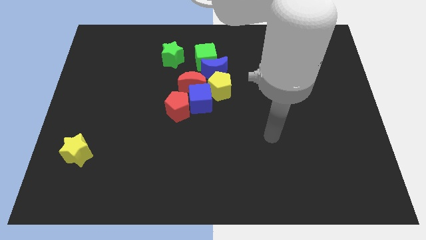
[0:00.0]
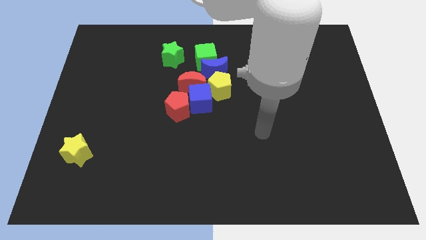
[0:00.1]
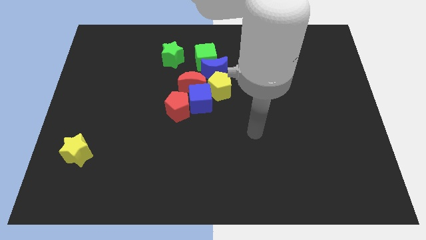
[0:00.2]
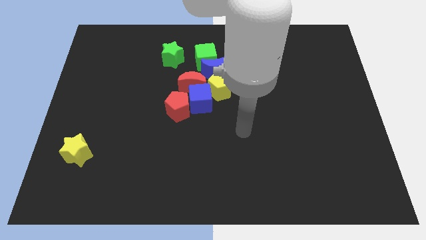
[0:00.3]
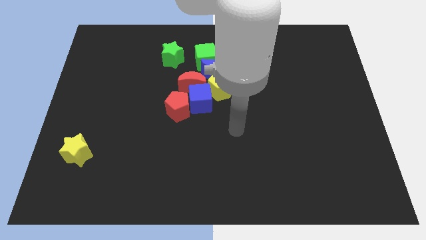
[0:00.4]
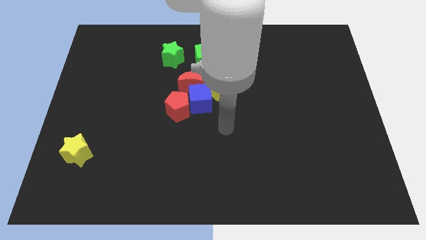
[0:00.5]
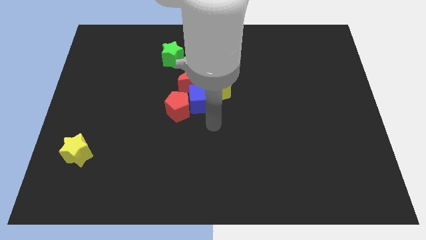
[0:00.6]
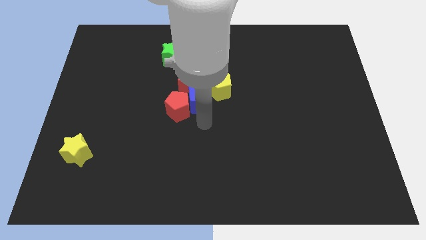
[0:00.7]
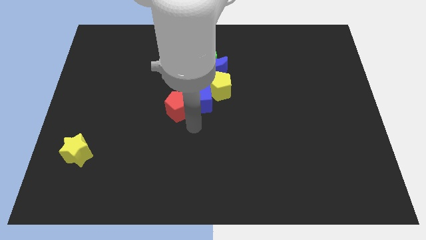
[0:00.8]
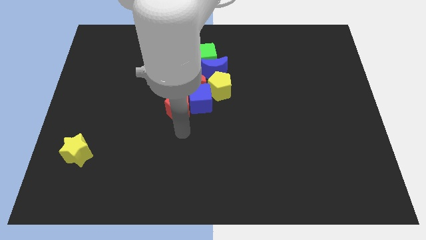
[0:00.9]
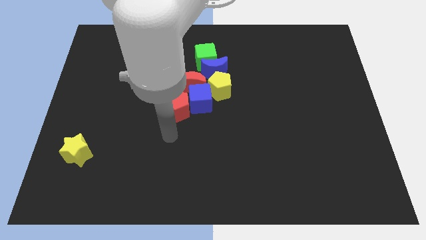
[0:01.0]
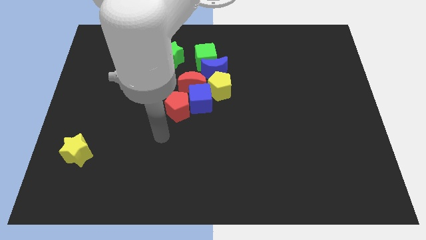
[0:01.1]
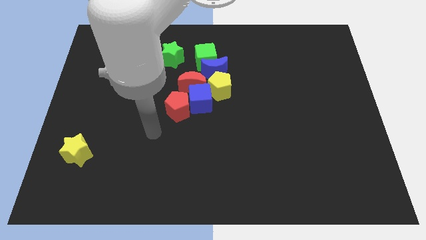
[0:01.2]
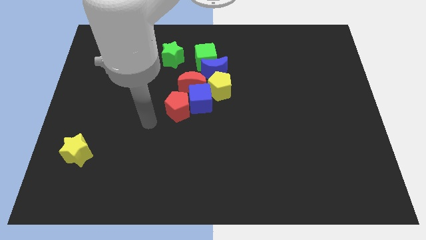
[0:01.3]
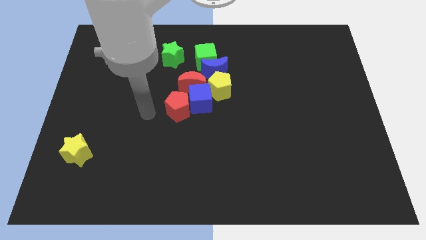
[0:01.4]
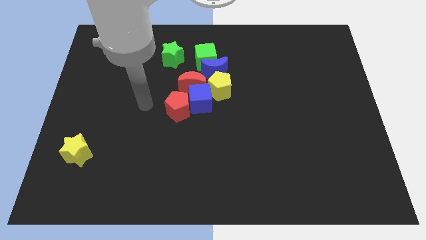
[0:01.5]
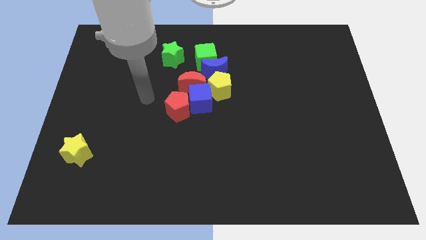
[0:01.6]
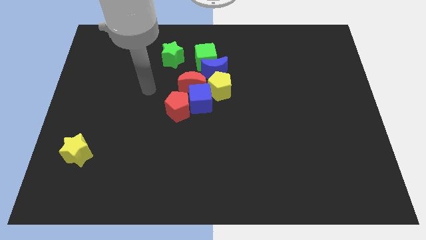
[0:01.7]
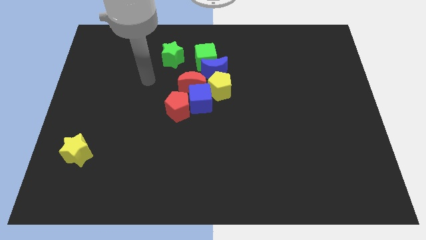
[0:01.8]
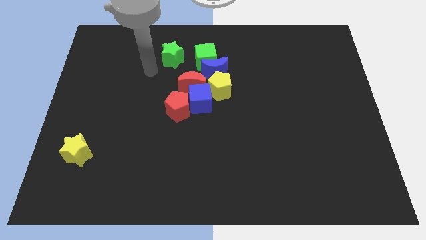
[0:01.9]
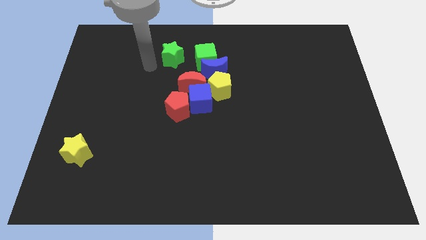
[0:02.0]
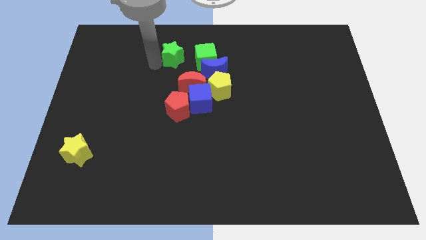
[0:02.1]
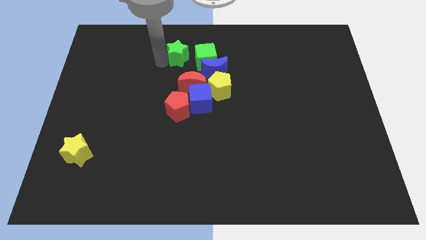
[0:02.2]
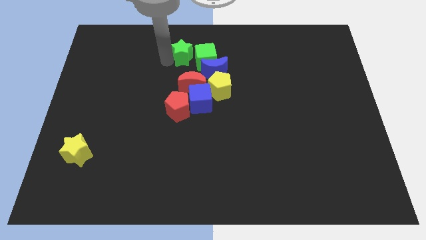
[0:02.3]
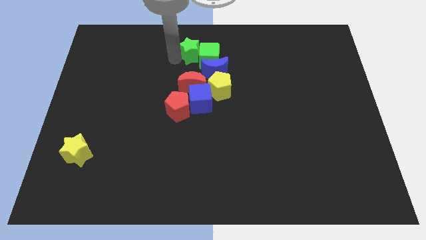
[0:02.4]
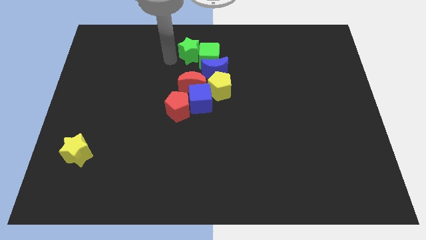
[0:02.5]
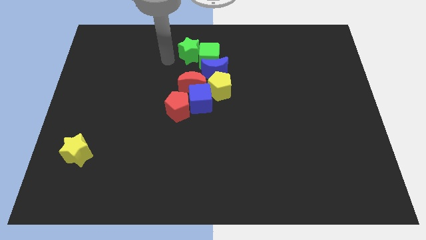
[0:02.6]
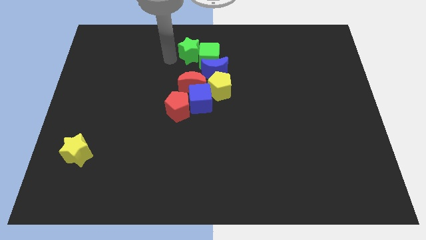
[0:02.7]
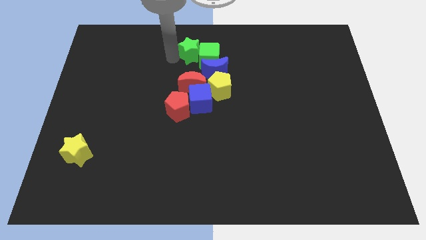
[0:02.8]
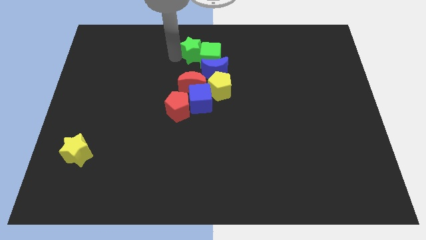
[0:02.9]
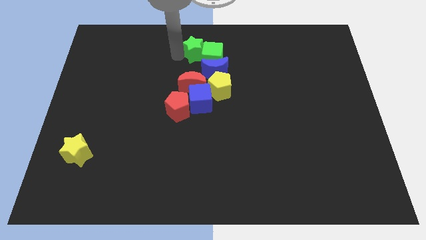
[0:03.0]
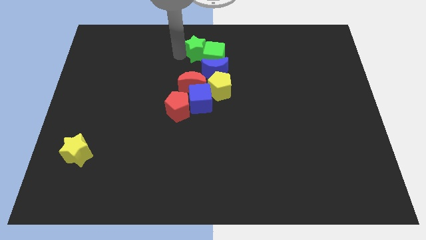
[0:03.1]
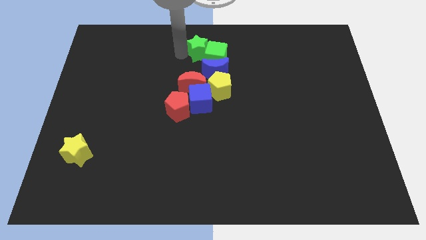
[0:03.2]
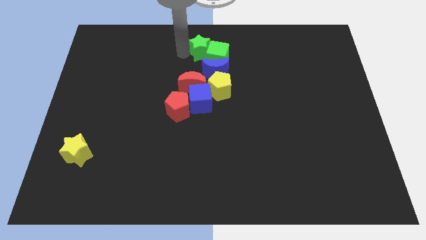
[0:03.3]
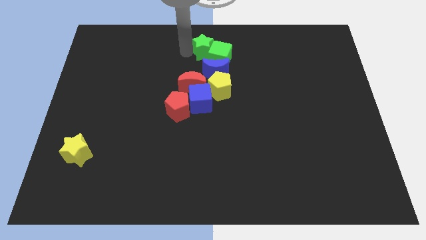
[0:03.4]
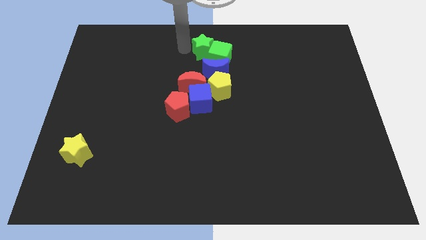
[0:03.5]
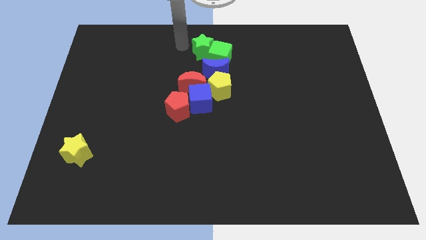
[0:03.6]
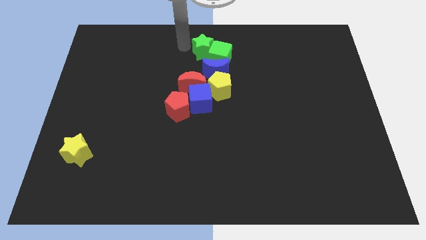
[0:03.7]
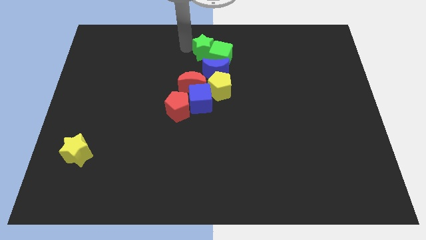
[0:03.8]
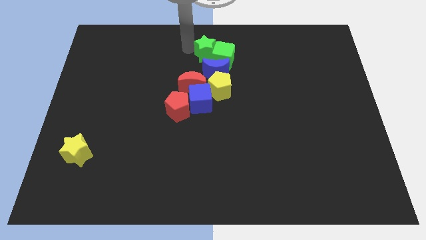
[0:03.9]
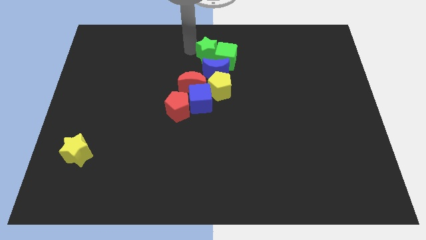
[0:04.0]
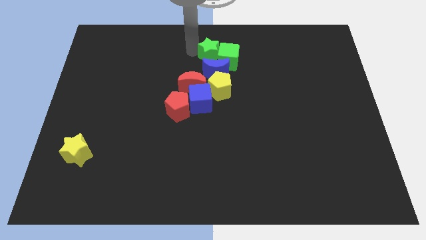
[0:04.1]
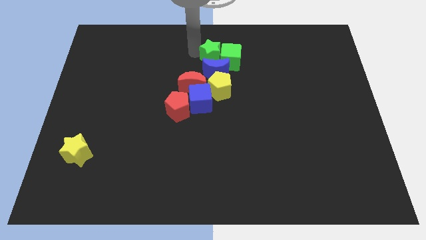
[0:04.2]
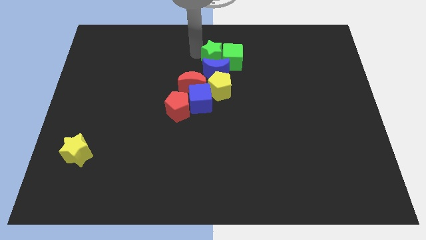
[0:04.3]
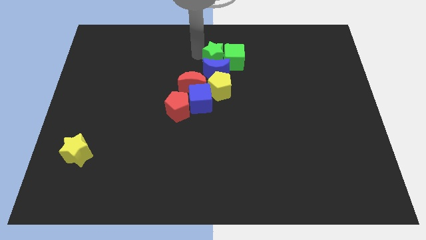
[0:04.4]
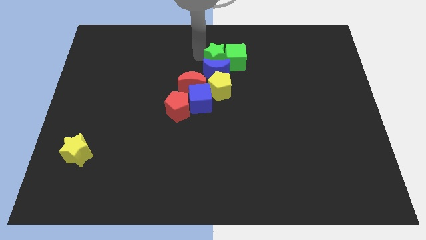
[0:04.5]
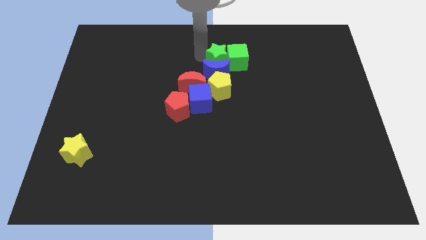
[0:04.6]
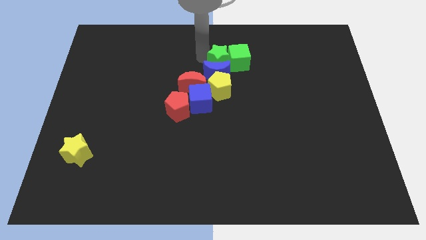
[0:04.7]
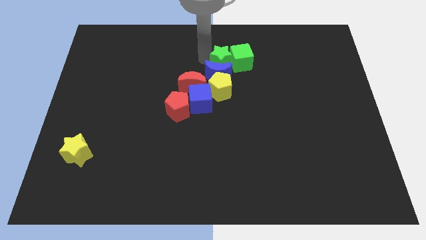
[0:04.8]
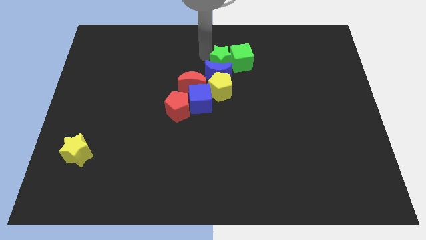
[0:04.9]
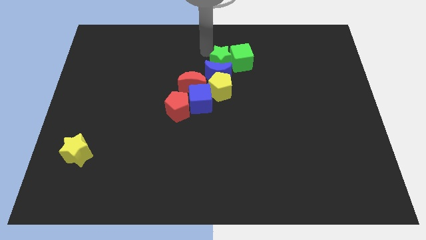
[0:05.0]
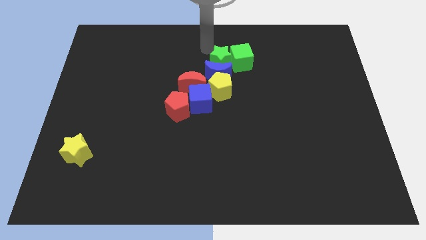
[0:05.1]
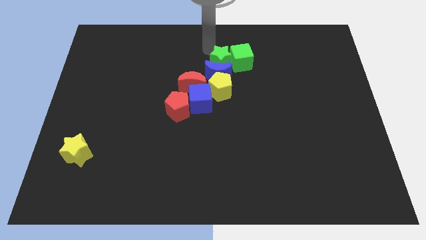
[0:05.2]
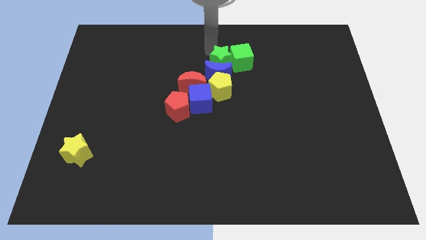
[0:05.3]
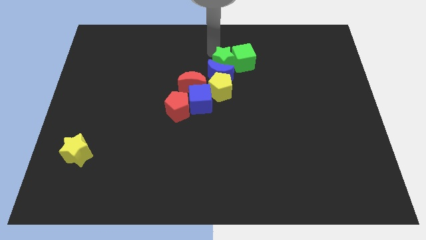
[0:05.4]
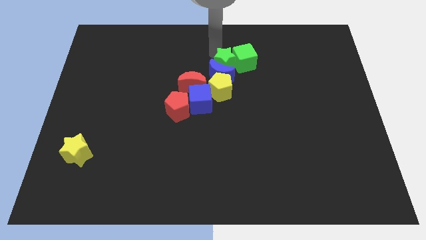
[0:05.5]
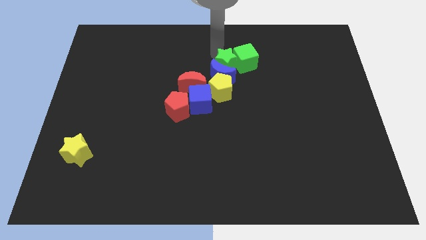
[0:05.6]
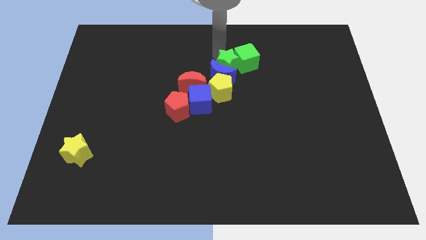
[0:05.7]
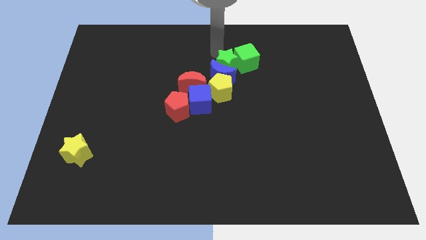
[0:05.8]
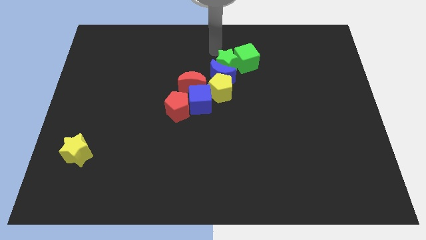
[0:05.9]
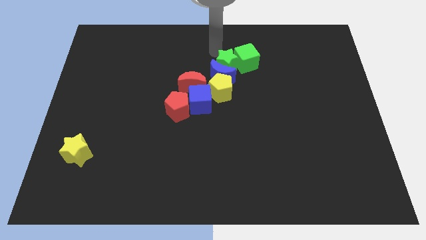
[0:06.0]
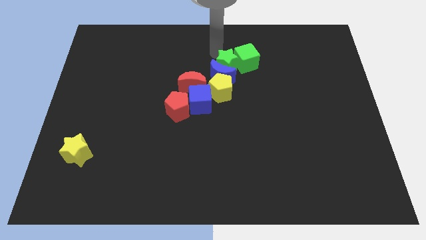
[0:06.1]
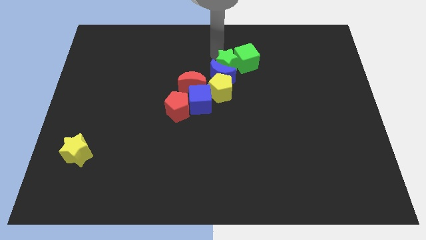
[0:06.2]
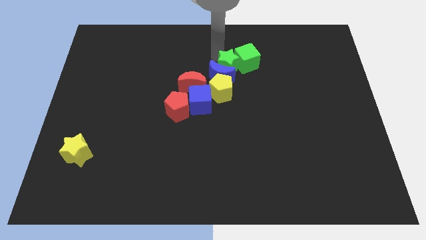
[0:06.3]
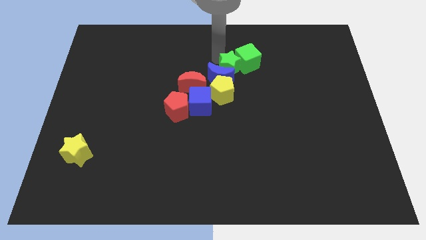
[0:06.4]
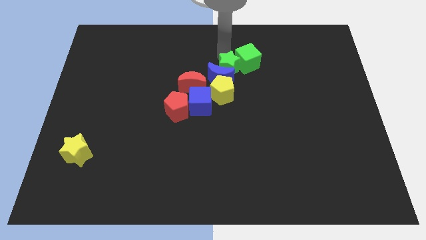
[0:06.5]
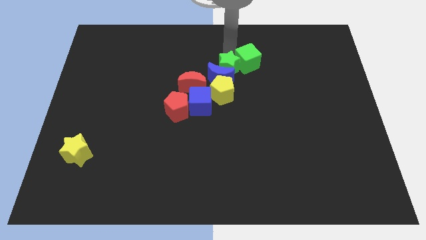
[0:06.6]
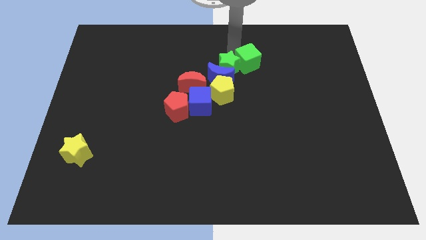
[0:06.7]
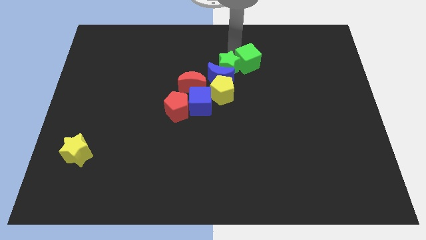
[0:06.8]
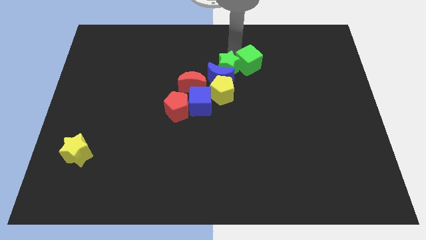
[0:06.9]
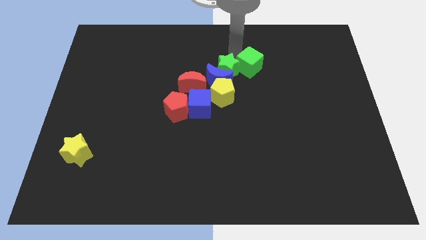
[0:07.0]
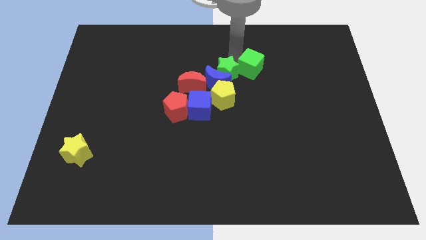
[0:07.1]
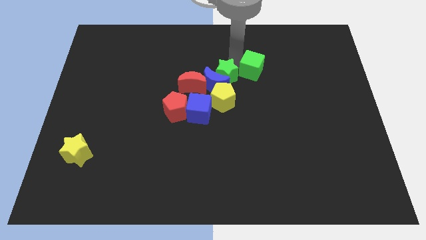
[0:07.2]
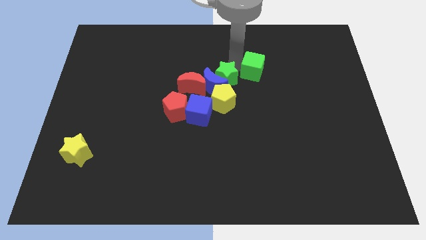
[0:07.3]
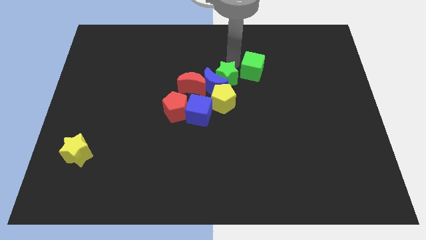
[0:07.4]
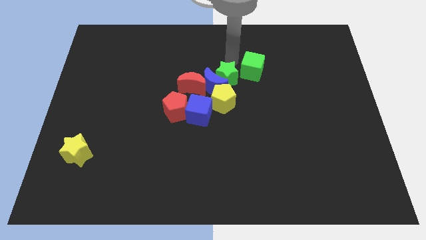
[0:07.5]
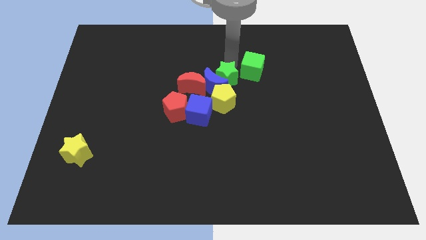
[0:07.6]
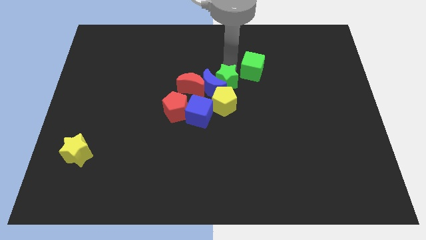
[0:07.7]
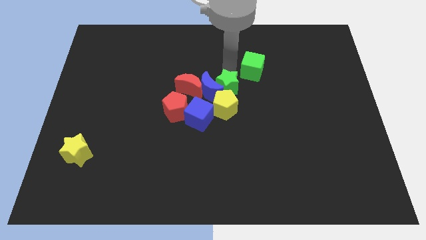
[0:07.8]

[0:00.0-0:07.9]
put the green star next to the yellow pentagon
